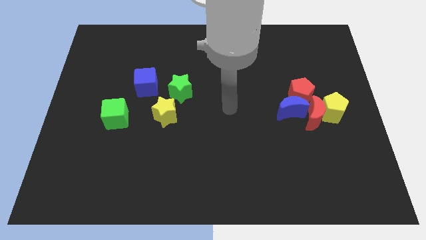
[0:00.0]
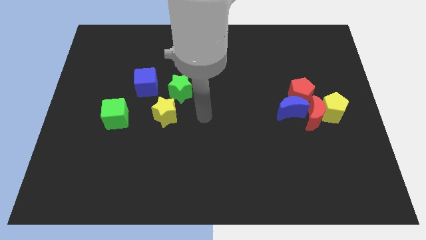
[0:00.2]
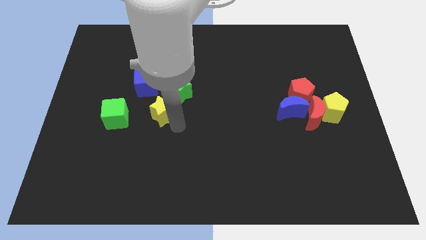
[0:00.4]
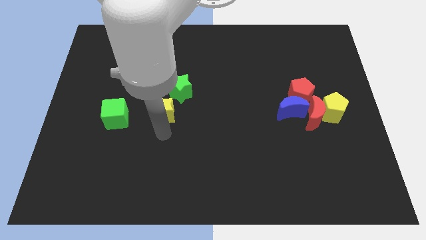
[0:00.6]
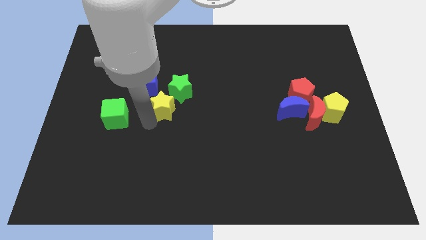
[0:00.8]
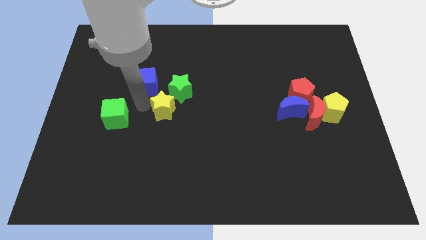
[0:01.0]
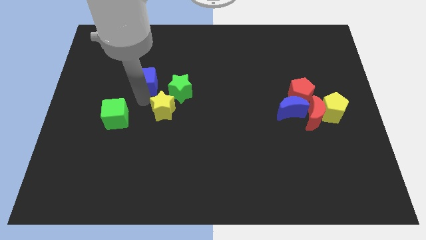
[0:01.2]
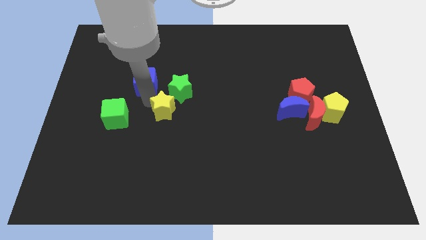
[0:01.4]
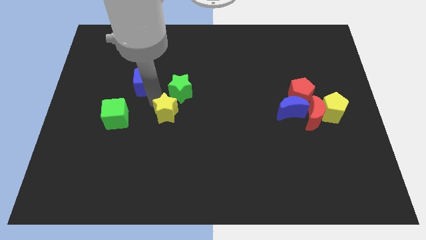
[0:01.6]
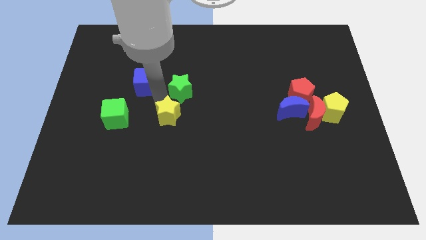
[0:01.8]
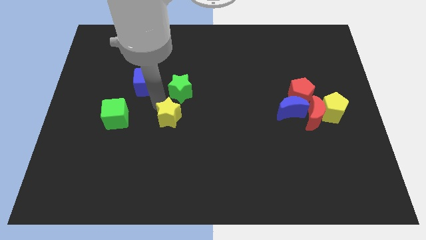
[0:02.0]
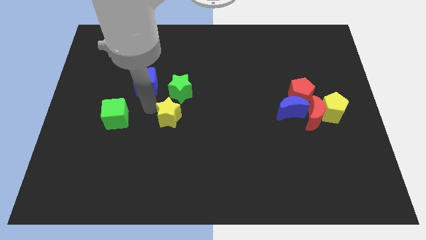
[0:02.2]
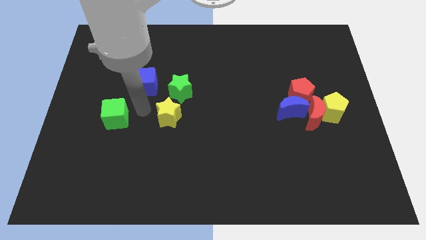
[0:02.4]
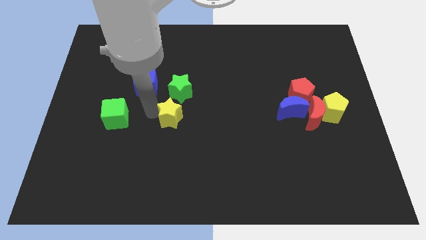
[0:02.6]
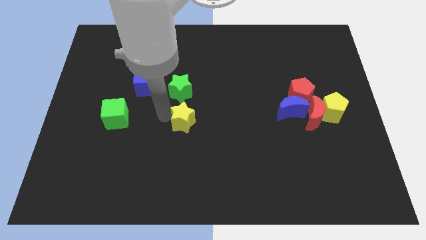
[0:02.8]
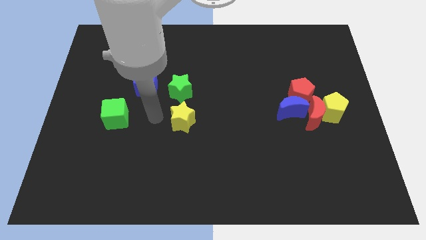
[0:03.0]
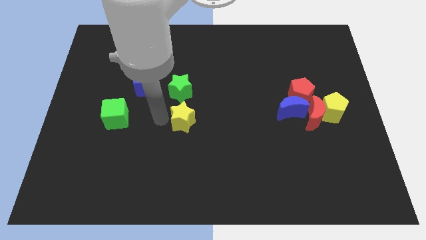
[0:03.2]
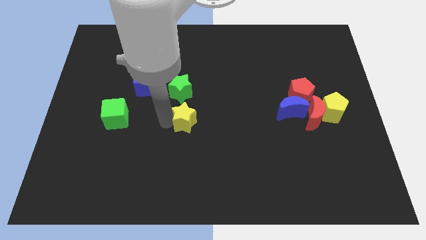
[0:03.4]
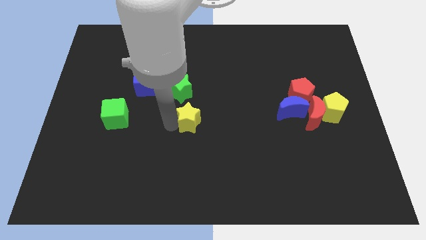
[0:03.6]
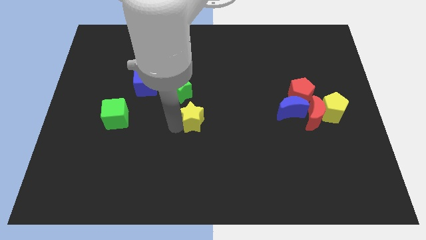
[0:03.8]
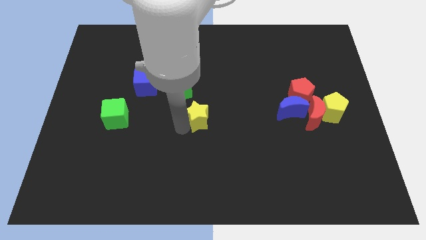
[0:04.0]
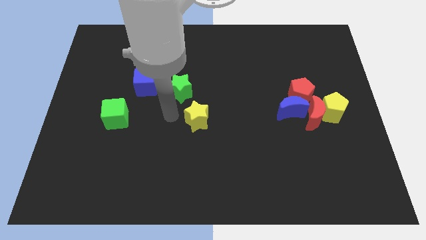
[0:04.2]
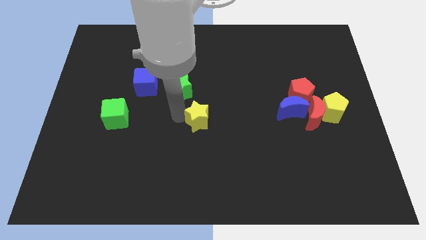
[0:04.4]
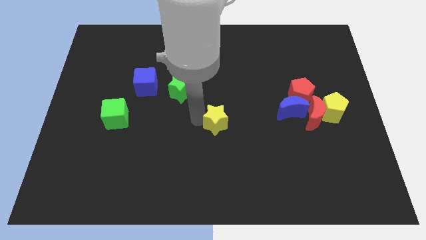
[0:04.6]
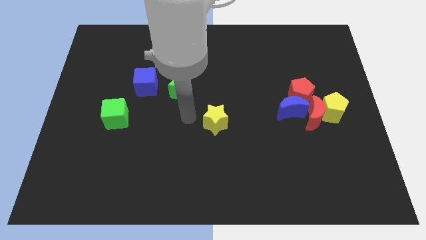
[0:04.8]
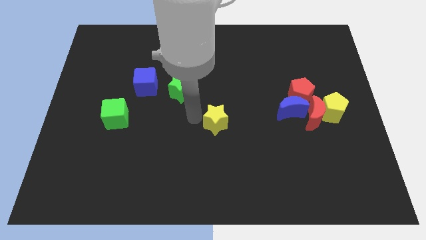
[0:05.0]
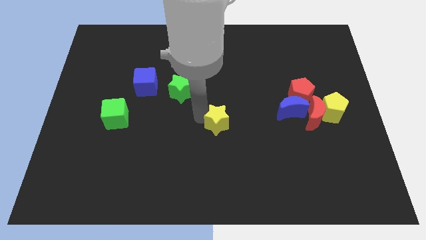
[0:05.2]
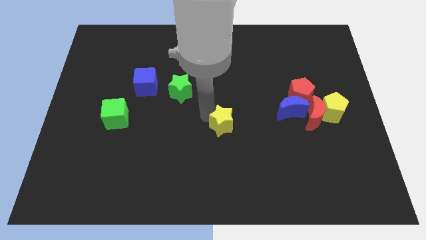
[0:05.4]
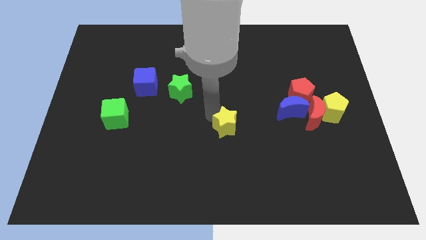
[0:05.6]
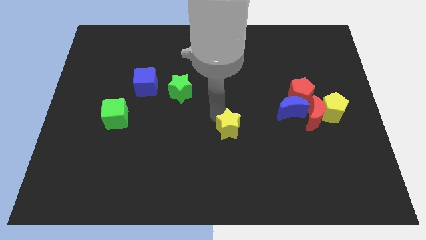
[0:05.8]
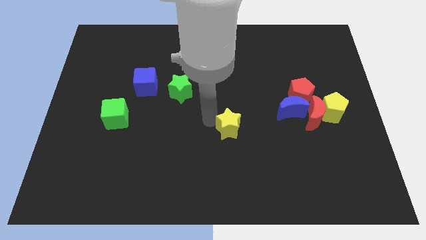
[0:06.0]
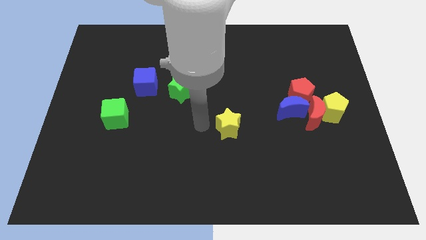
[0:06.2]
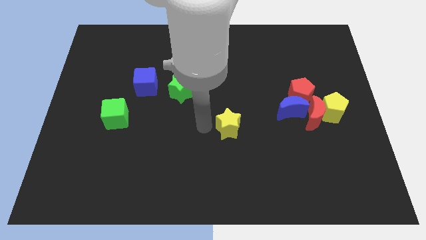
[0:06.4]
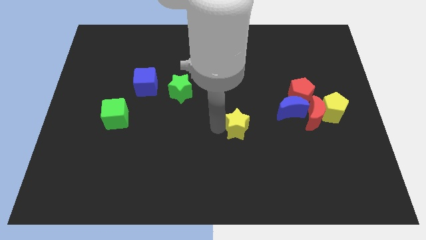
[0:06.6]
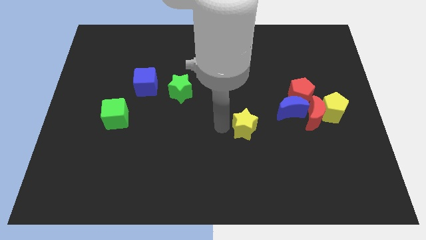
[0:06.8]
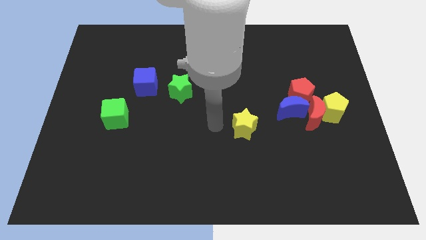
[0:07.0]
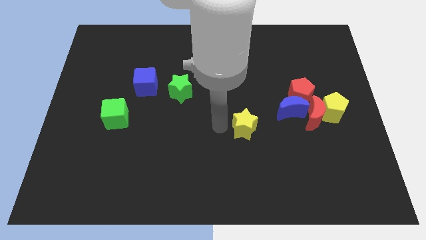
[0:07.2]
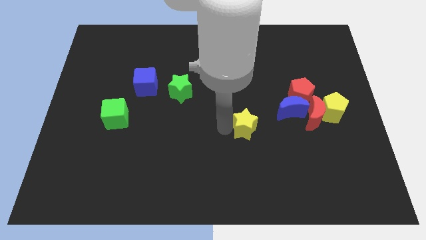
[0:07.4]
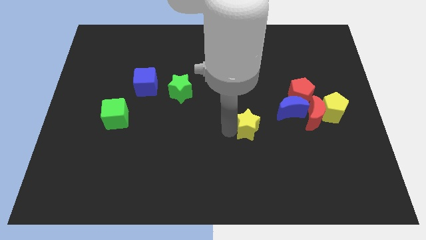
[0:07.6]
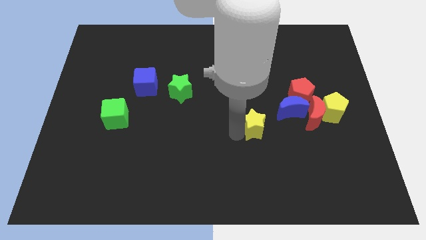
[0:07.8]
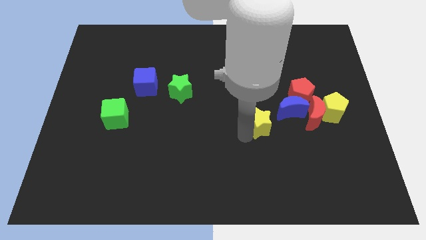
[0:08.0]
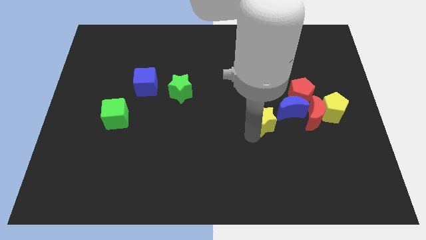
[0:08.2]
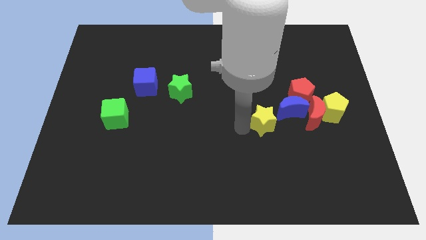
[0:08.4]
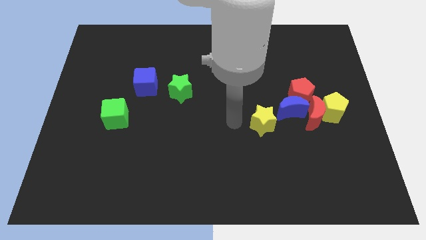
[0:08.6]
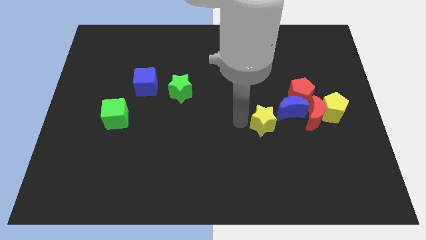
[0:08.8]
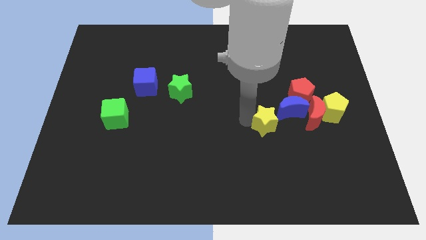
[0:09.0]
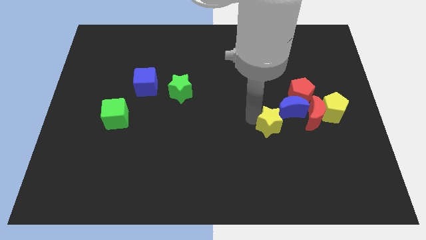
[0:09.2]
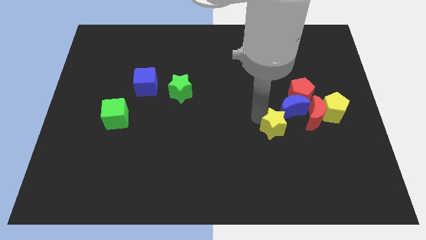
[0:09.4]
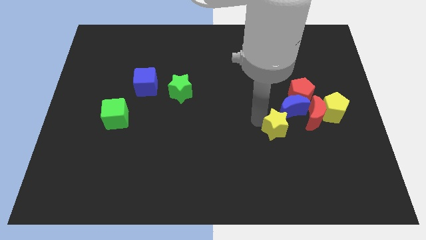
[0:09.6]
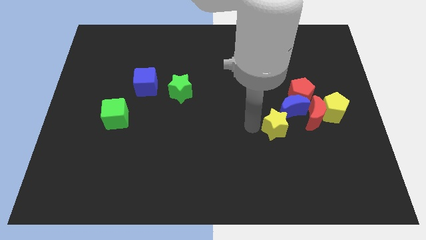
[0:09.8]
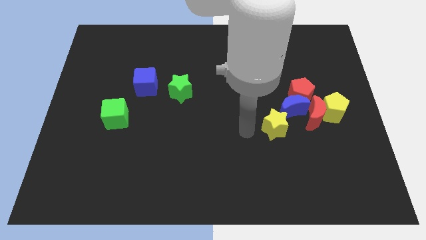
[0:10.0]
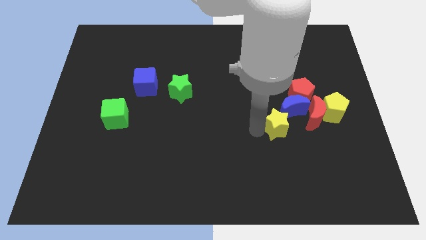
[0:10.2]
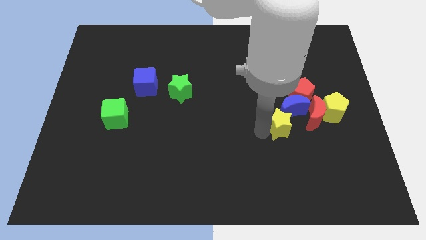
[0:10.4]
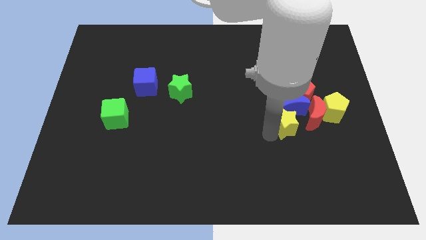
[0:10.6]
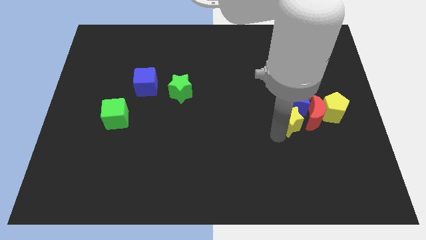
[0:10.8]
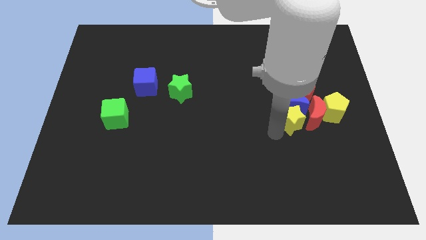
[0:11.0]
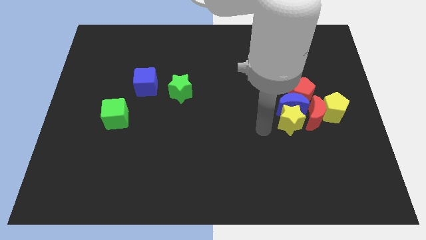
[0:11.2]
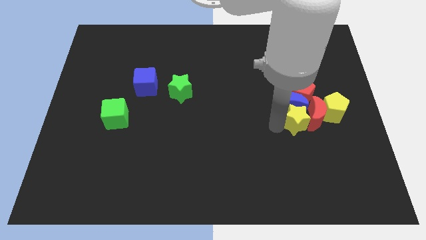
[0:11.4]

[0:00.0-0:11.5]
put the yellow star towards the red moon

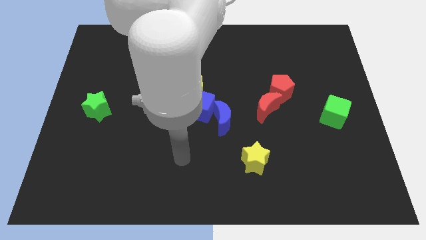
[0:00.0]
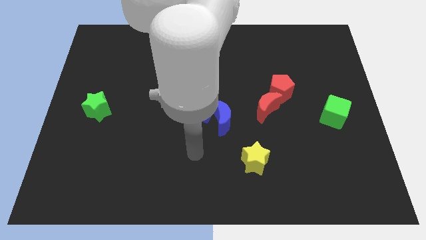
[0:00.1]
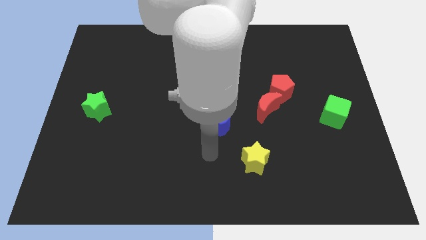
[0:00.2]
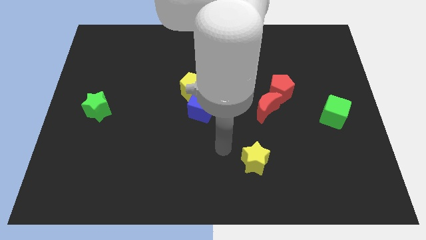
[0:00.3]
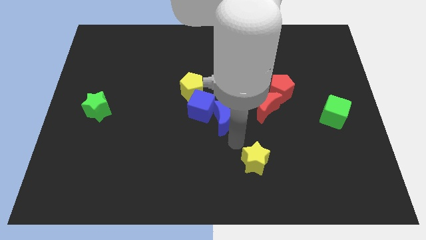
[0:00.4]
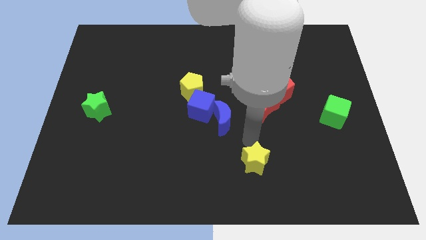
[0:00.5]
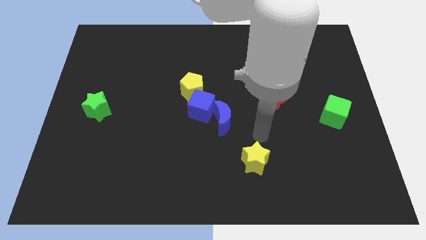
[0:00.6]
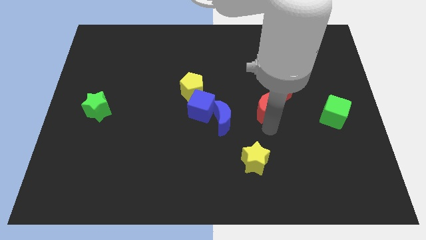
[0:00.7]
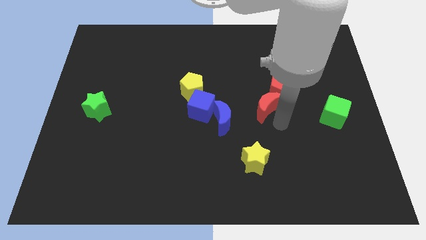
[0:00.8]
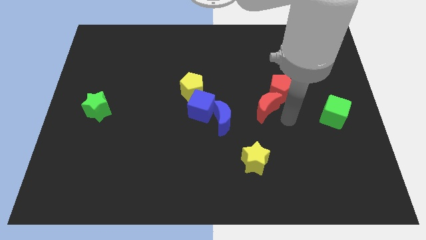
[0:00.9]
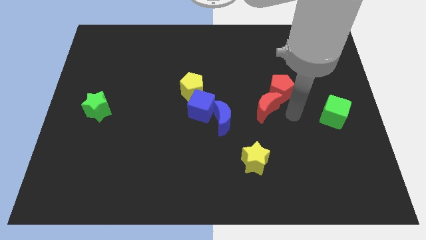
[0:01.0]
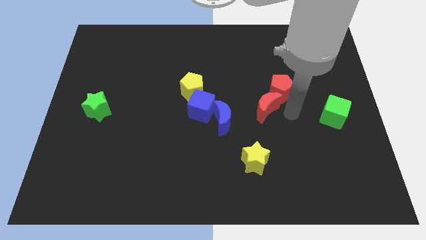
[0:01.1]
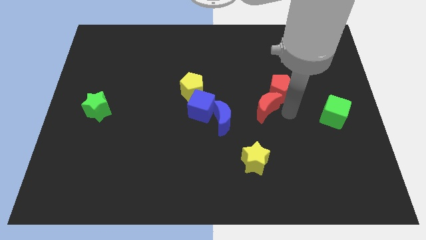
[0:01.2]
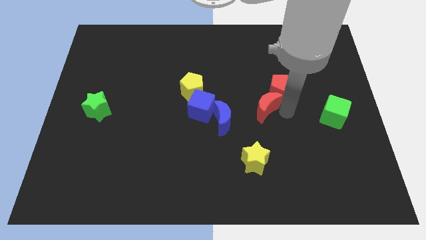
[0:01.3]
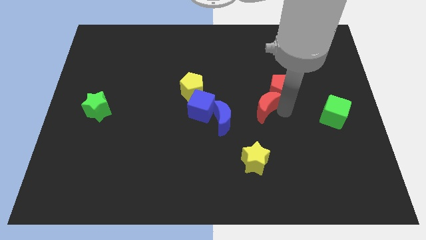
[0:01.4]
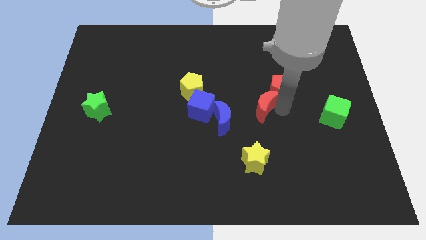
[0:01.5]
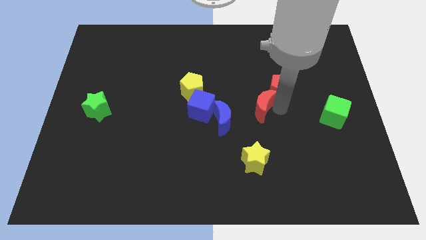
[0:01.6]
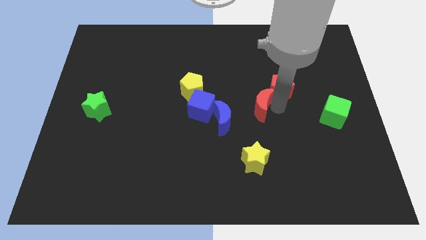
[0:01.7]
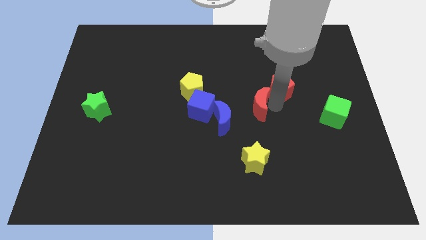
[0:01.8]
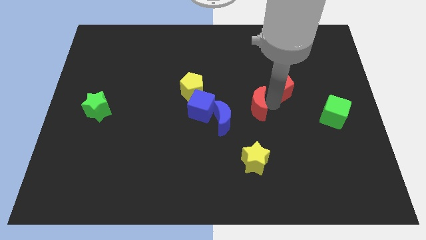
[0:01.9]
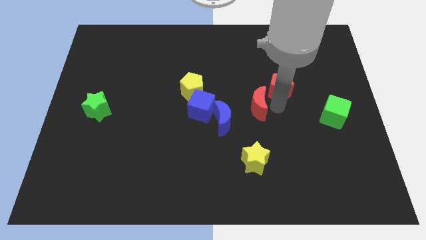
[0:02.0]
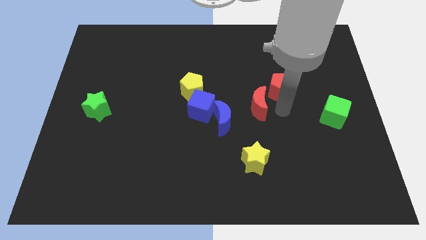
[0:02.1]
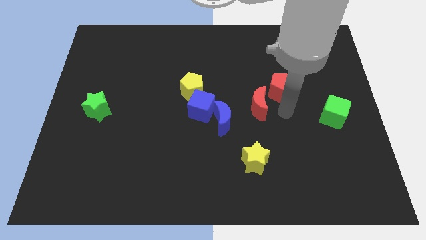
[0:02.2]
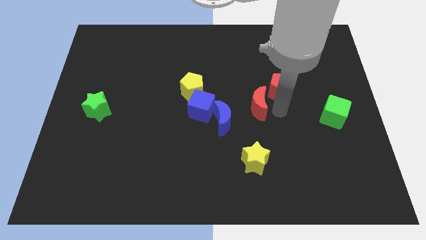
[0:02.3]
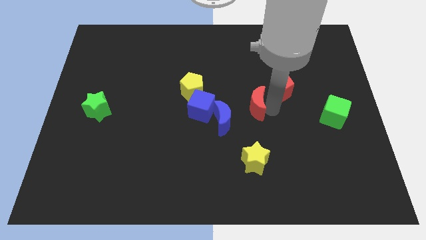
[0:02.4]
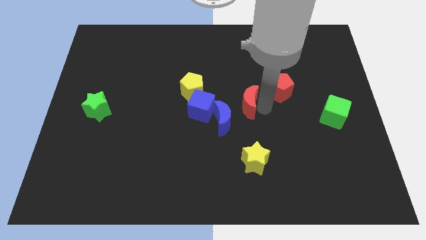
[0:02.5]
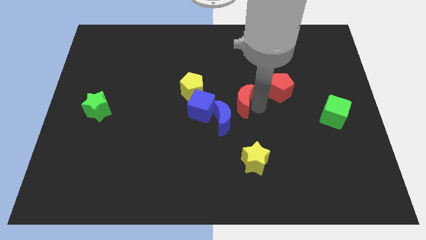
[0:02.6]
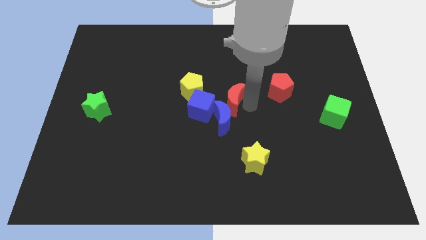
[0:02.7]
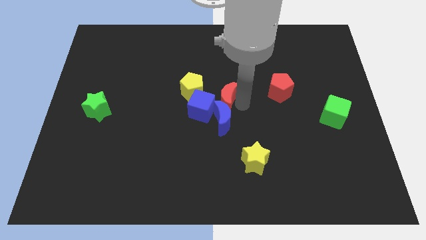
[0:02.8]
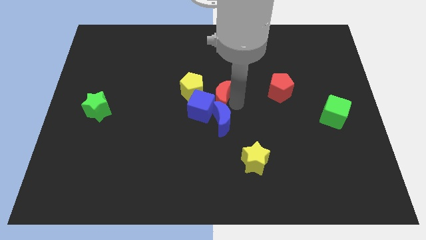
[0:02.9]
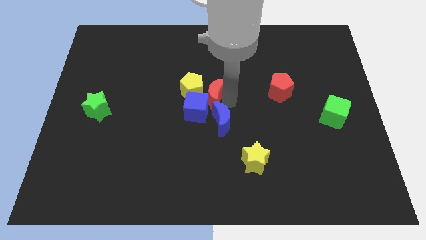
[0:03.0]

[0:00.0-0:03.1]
slide the red moon to the yellow pentagon
